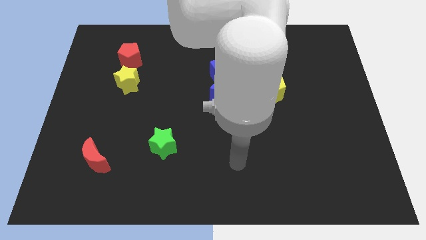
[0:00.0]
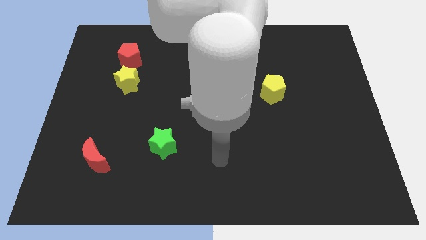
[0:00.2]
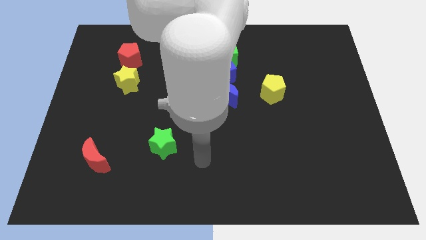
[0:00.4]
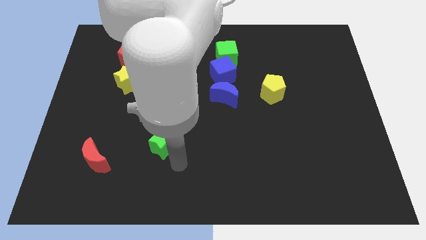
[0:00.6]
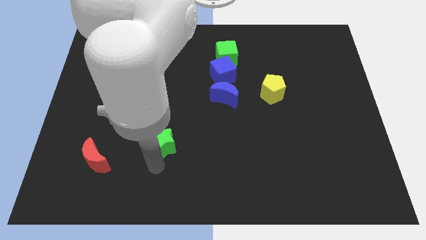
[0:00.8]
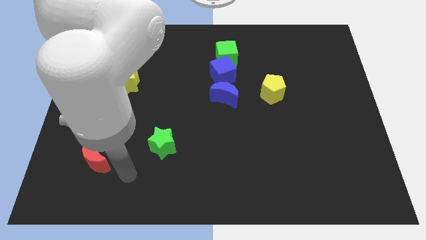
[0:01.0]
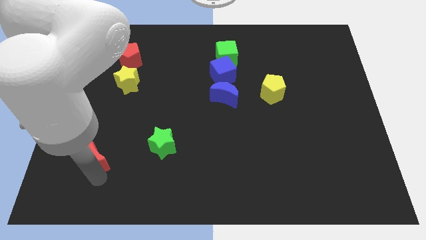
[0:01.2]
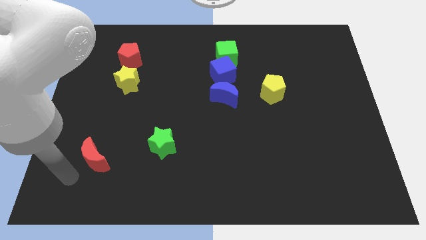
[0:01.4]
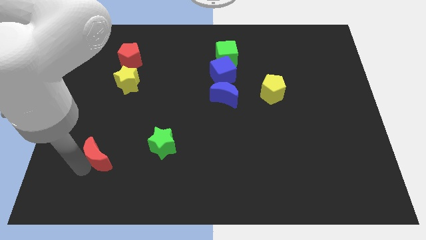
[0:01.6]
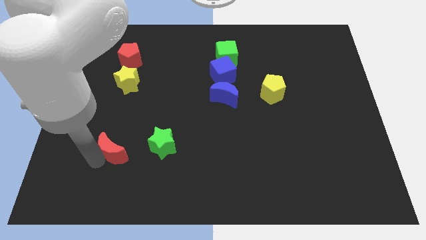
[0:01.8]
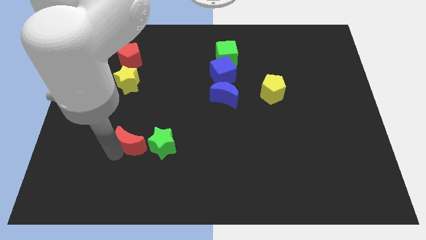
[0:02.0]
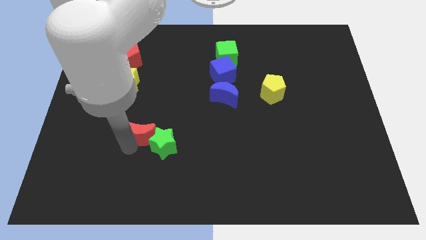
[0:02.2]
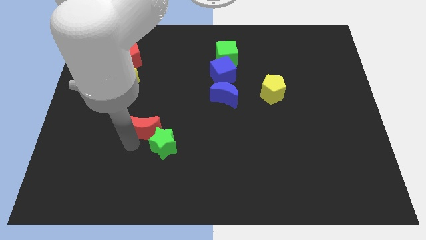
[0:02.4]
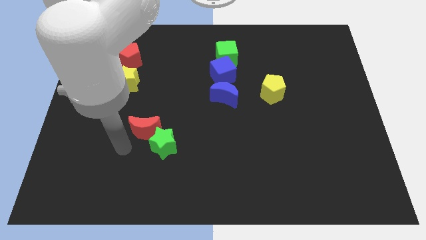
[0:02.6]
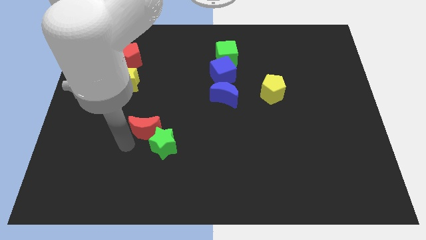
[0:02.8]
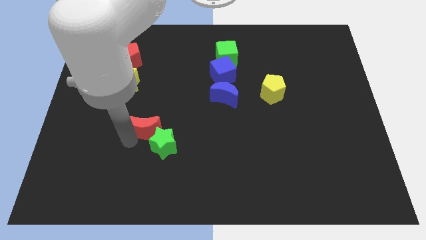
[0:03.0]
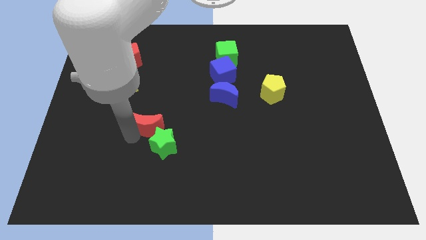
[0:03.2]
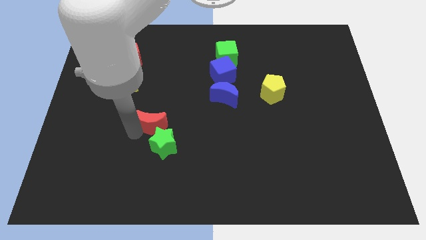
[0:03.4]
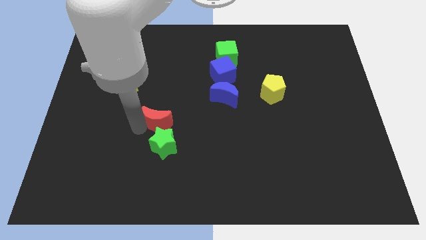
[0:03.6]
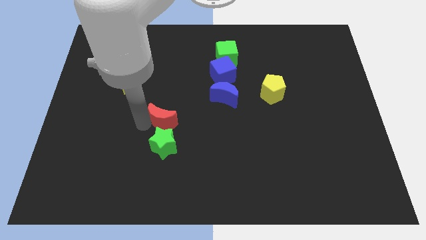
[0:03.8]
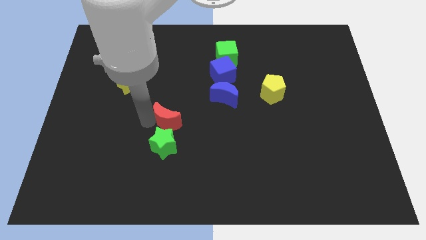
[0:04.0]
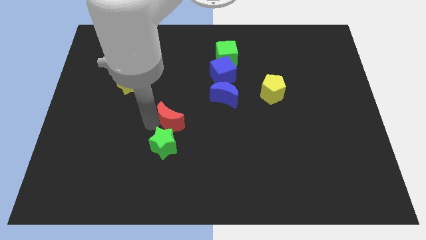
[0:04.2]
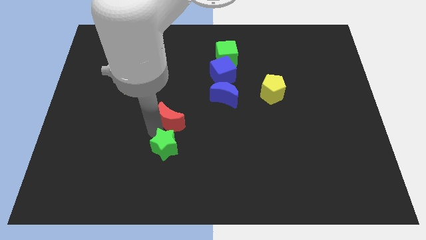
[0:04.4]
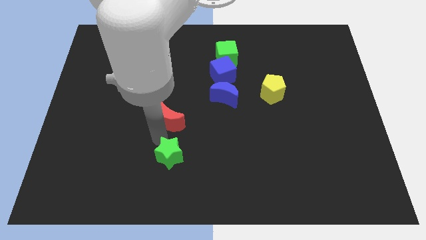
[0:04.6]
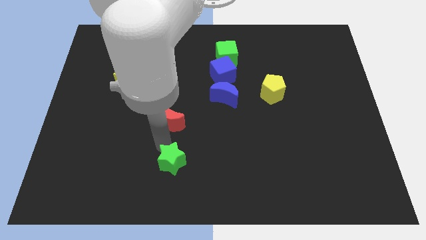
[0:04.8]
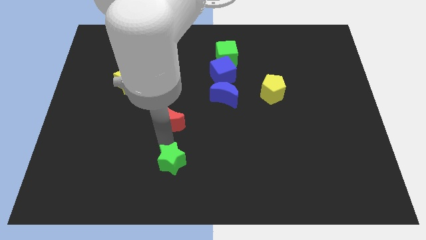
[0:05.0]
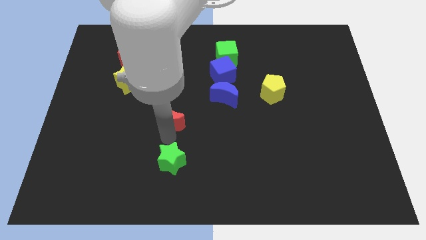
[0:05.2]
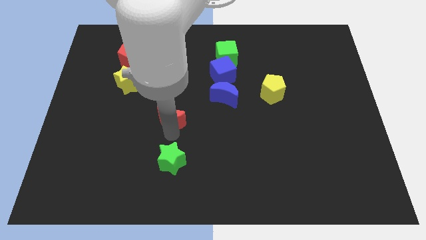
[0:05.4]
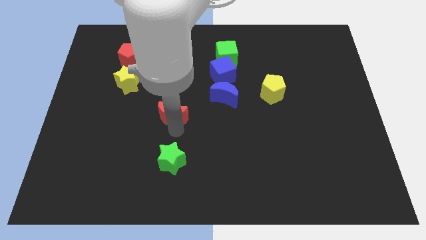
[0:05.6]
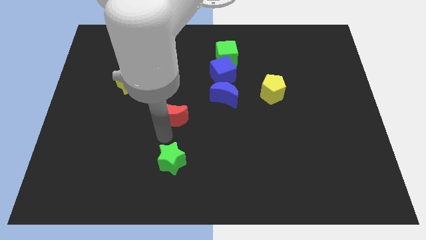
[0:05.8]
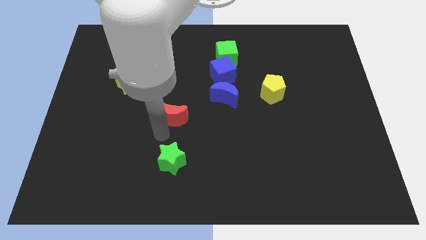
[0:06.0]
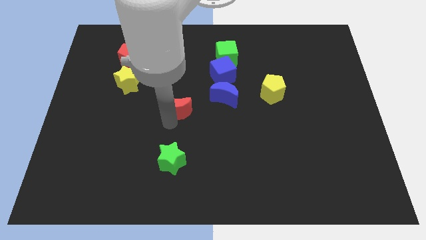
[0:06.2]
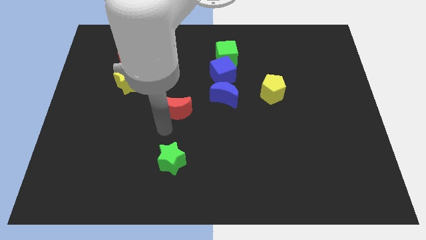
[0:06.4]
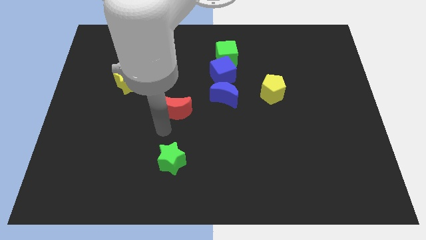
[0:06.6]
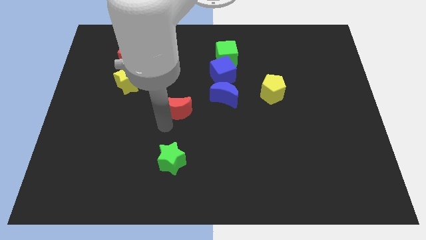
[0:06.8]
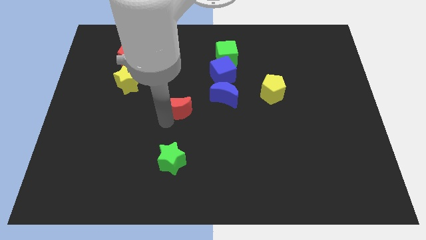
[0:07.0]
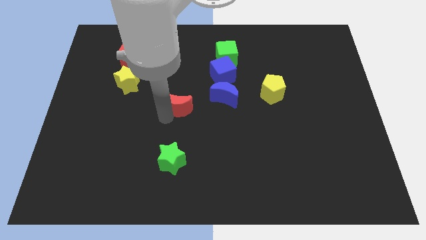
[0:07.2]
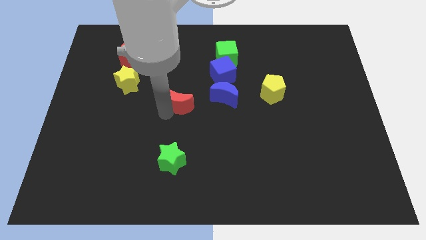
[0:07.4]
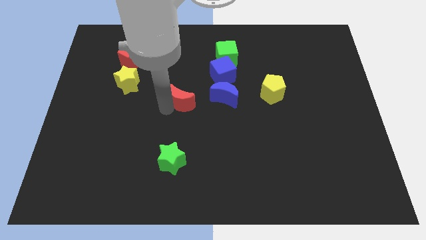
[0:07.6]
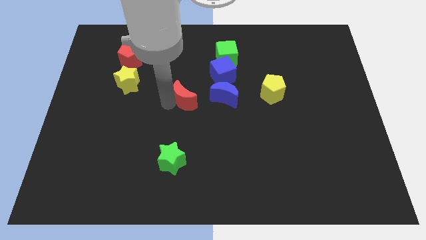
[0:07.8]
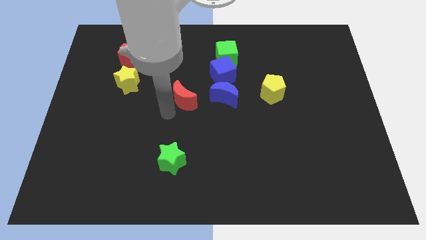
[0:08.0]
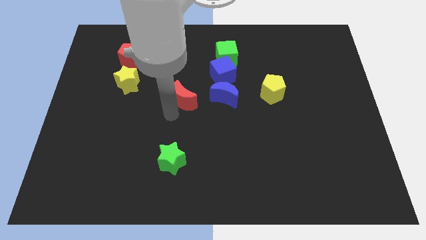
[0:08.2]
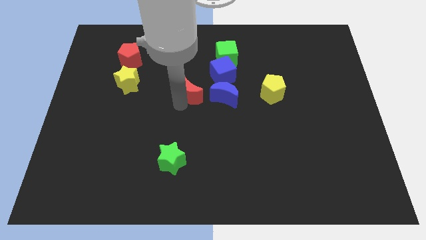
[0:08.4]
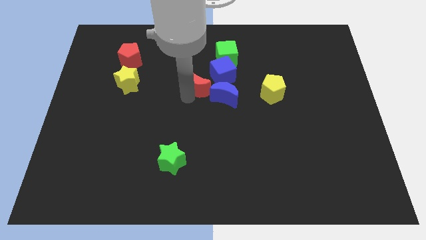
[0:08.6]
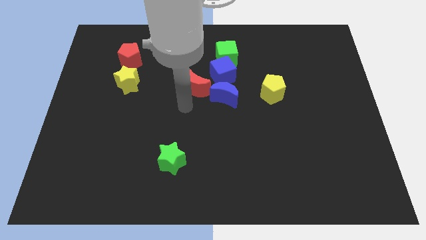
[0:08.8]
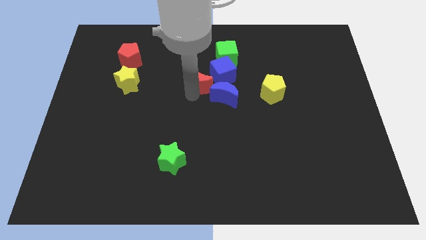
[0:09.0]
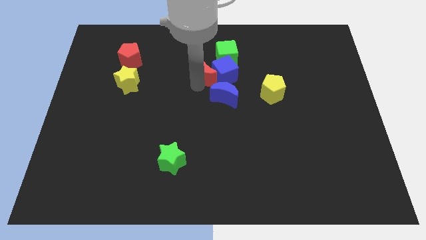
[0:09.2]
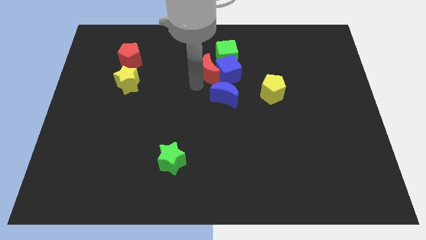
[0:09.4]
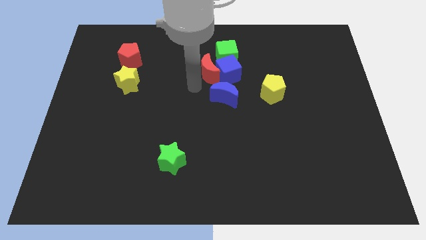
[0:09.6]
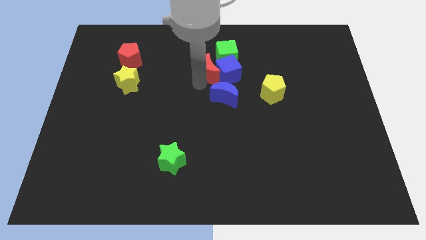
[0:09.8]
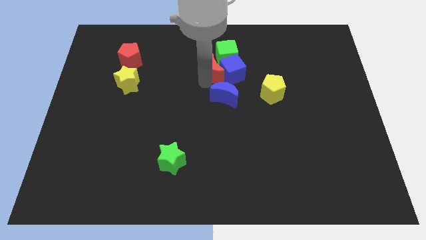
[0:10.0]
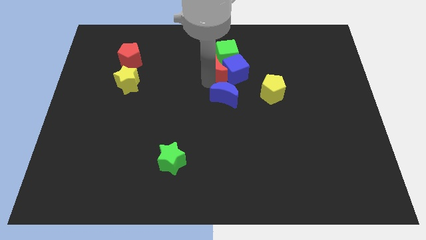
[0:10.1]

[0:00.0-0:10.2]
slide the red moon to the green cube

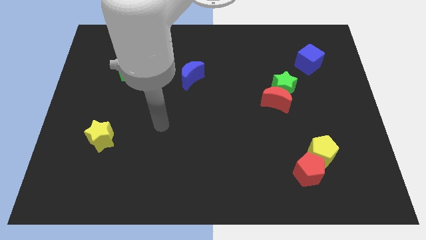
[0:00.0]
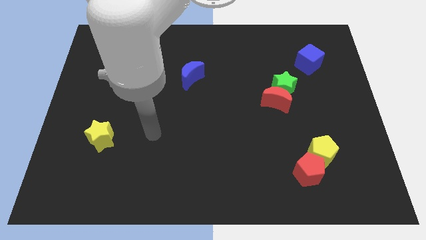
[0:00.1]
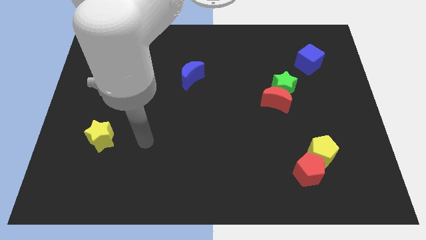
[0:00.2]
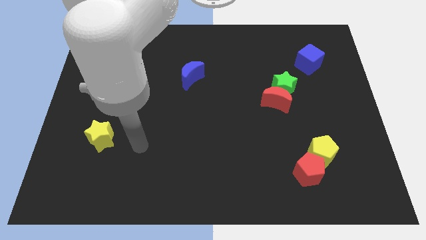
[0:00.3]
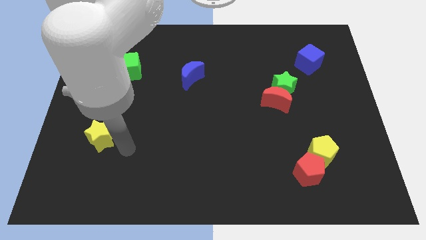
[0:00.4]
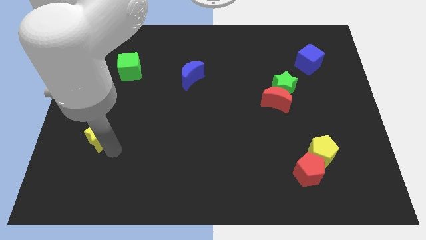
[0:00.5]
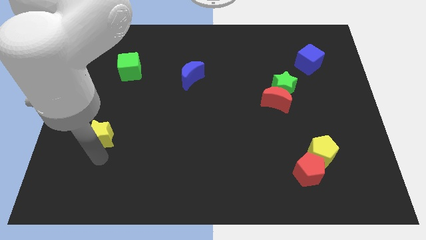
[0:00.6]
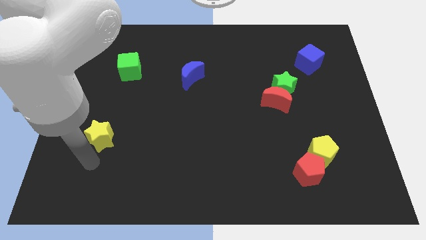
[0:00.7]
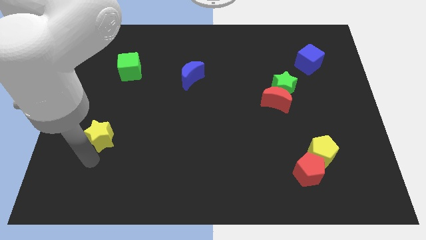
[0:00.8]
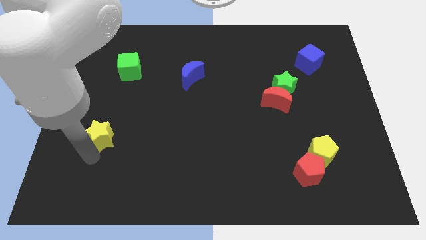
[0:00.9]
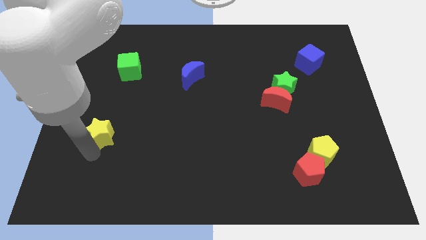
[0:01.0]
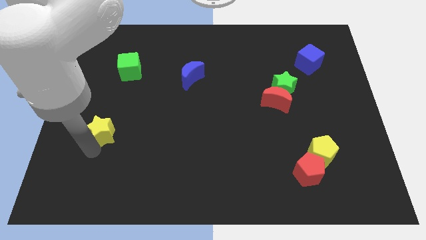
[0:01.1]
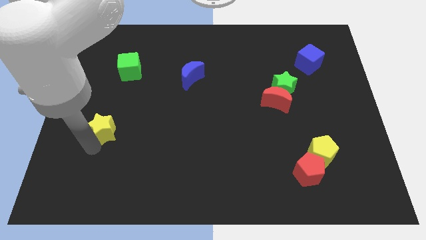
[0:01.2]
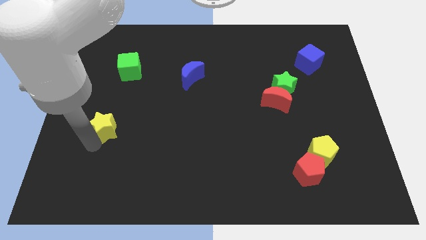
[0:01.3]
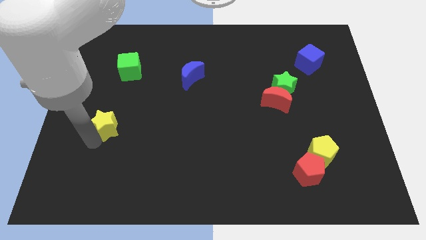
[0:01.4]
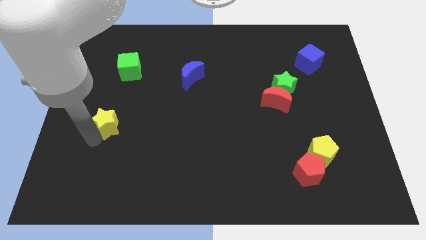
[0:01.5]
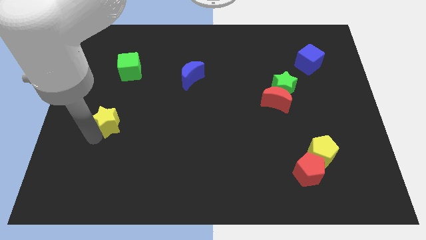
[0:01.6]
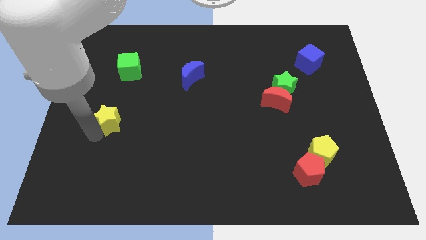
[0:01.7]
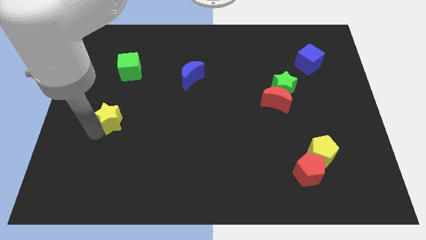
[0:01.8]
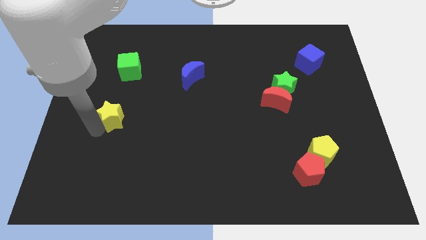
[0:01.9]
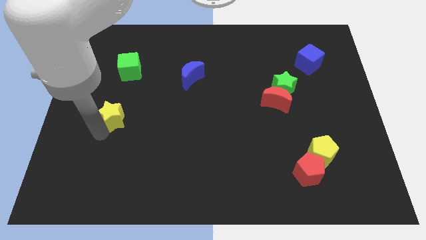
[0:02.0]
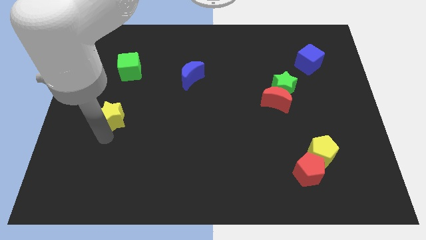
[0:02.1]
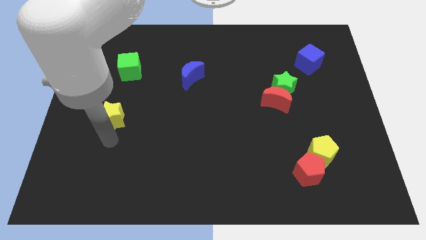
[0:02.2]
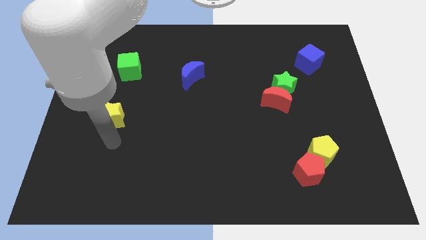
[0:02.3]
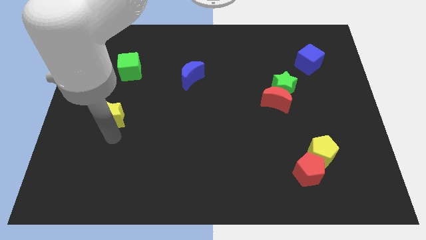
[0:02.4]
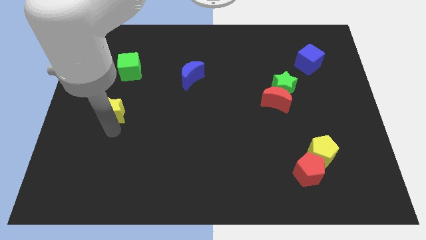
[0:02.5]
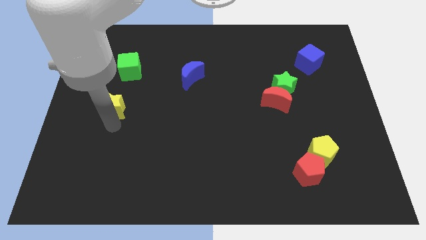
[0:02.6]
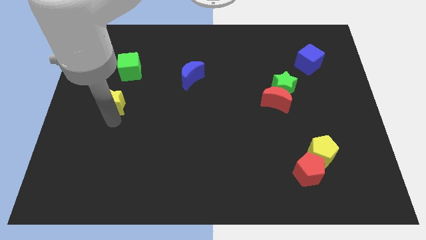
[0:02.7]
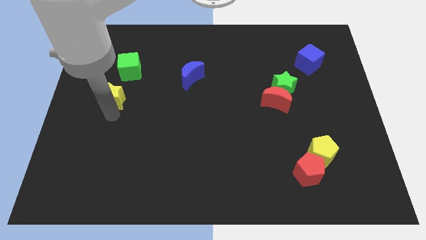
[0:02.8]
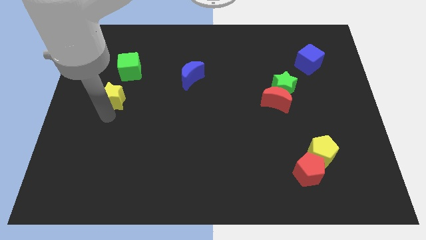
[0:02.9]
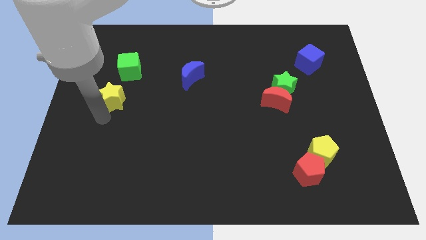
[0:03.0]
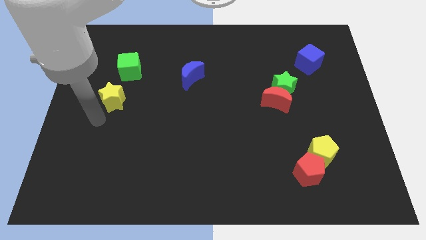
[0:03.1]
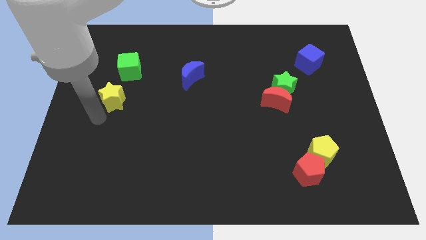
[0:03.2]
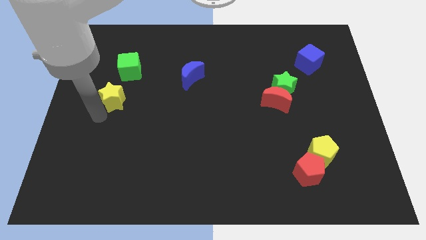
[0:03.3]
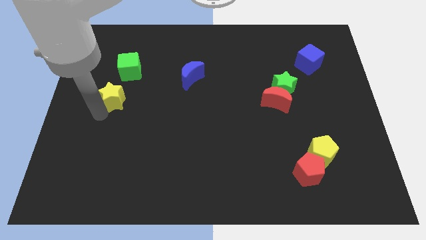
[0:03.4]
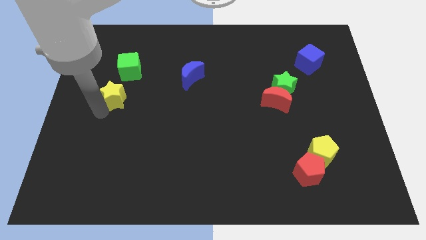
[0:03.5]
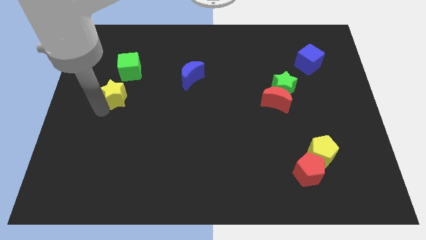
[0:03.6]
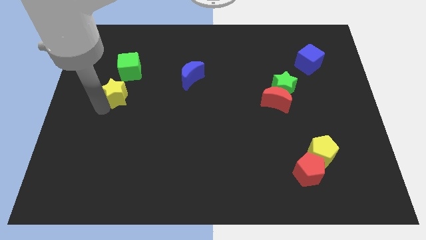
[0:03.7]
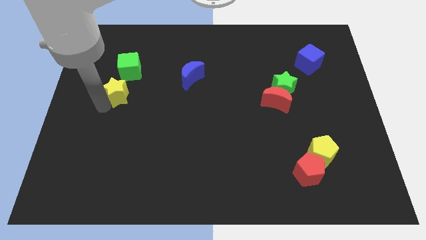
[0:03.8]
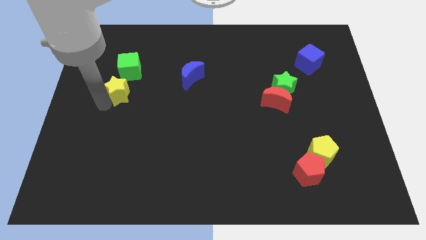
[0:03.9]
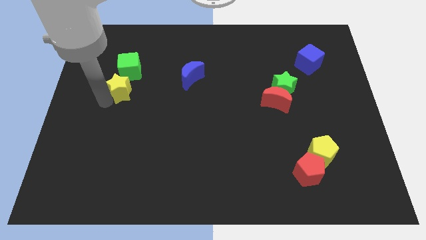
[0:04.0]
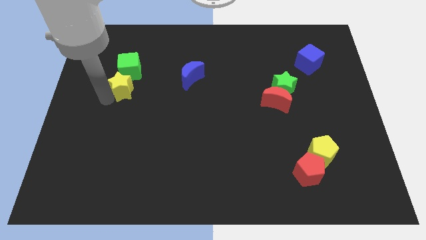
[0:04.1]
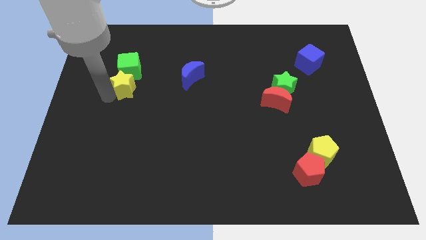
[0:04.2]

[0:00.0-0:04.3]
move the yellow star to the green cube
